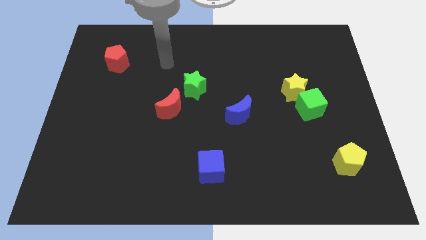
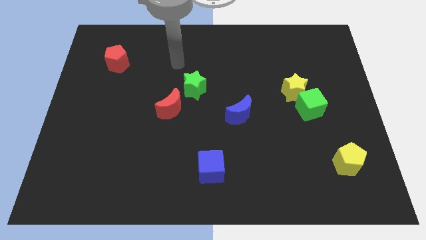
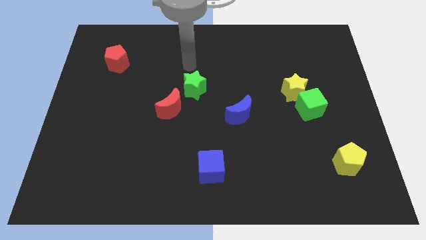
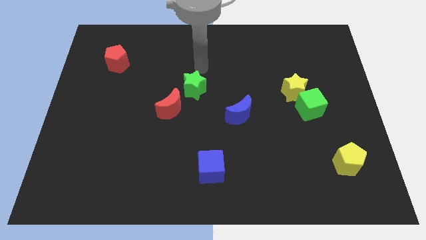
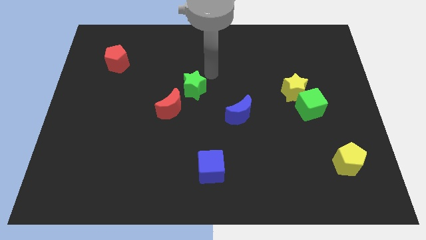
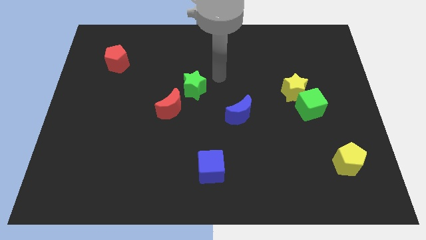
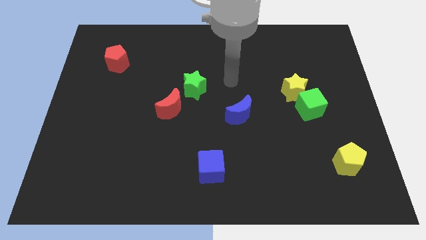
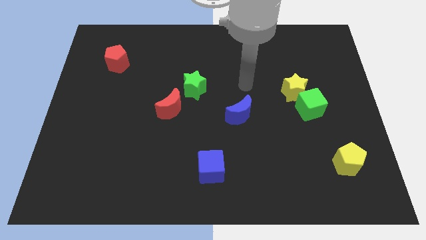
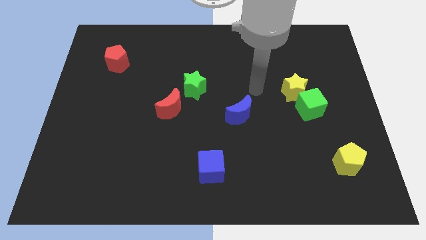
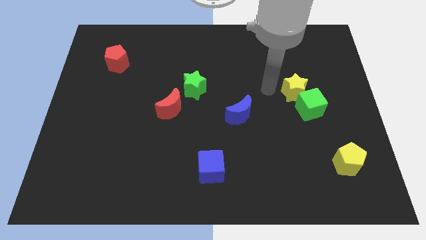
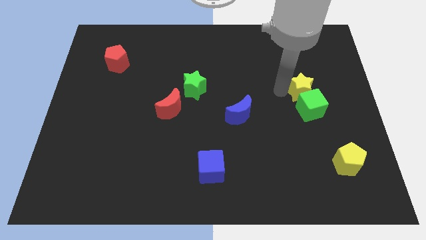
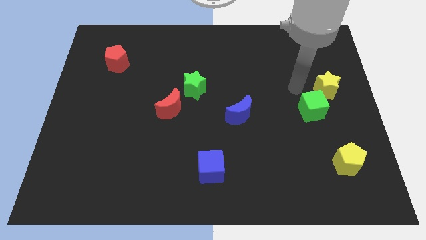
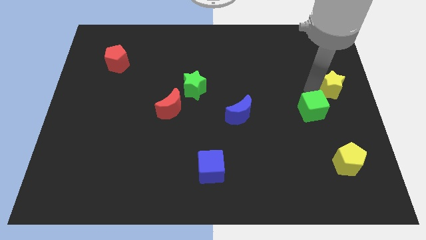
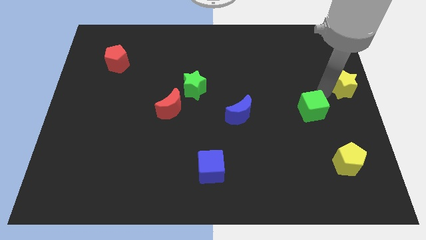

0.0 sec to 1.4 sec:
separate the green cube from the yellow star

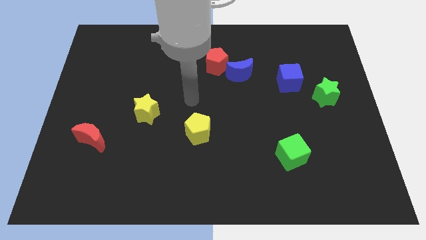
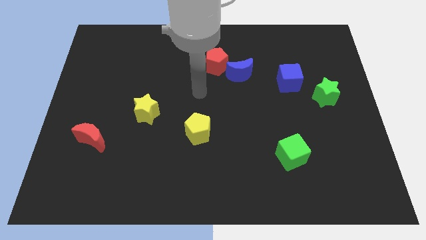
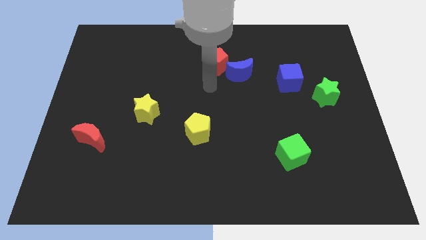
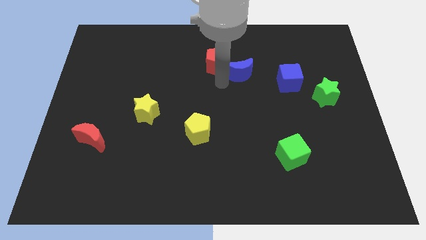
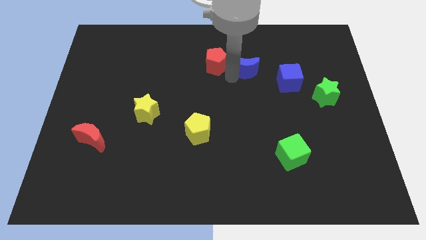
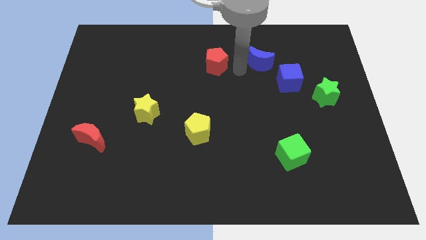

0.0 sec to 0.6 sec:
move the red pentagon away from the blue moon

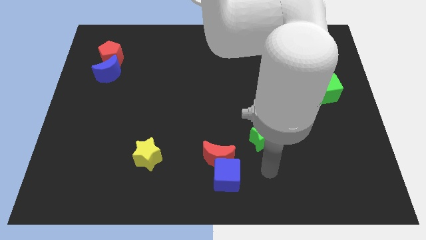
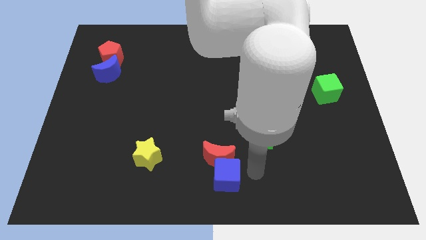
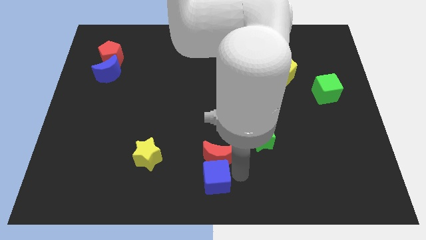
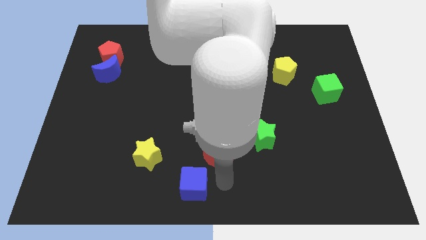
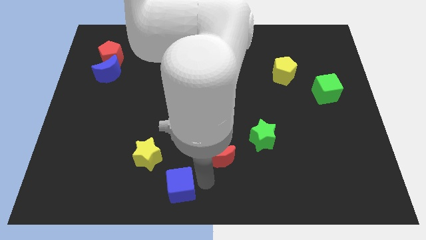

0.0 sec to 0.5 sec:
separate the red moon from the blue cube

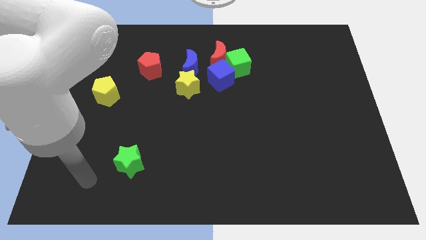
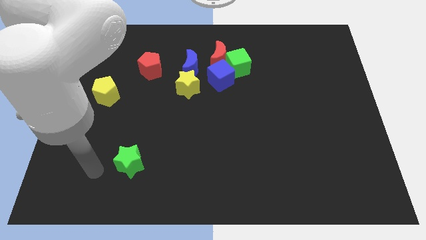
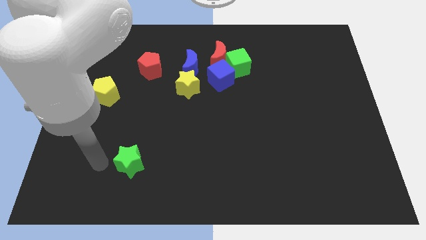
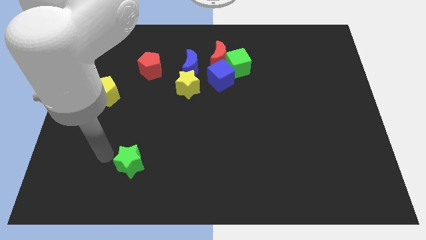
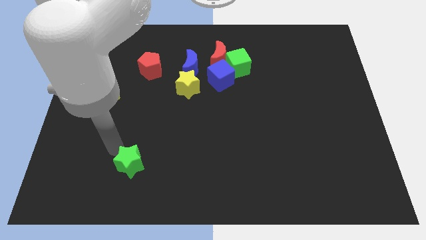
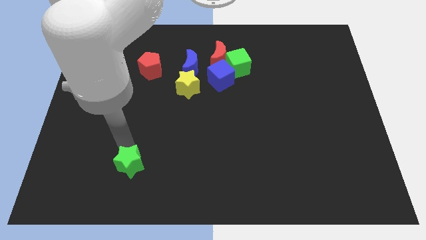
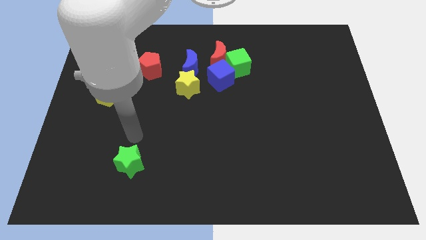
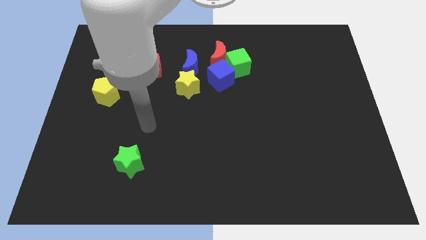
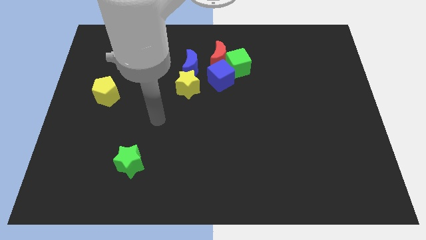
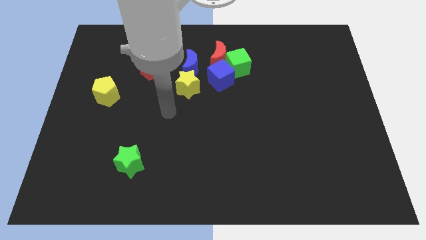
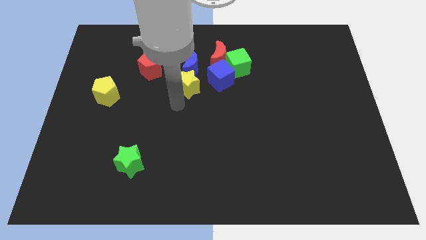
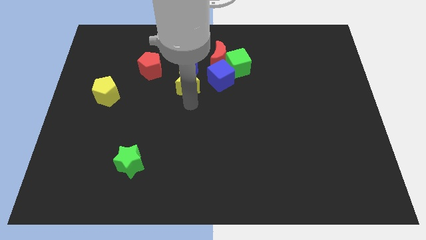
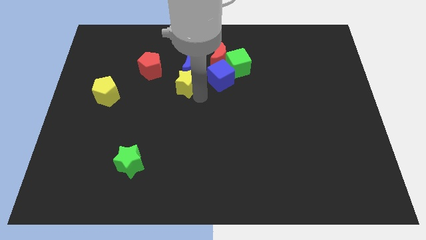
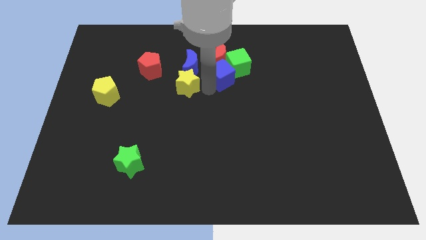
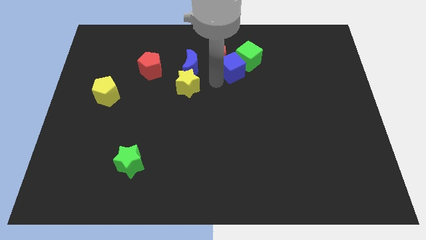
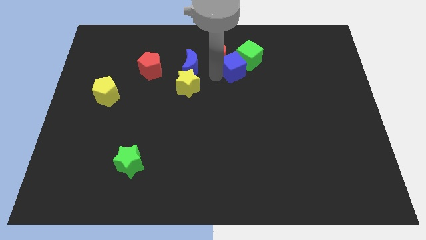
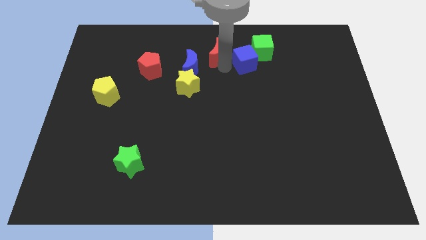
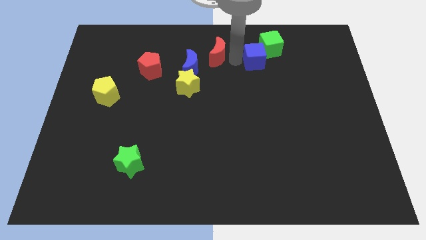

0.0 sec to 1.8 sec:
pull the green cube apart from the red moon and blue cube

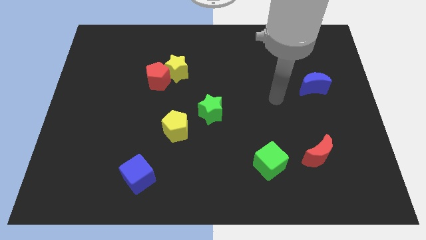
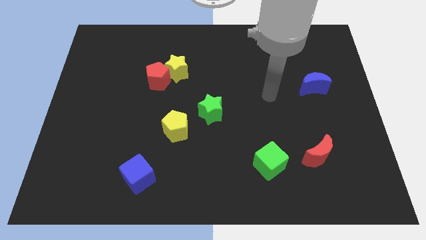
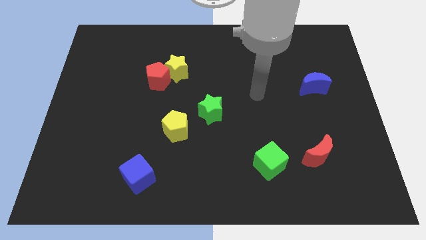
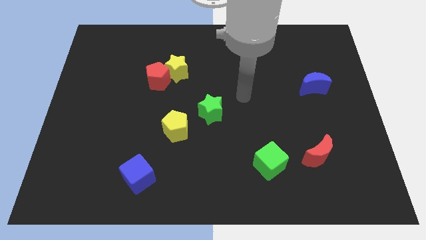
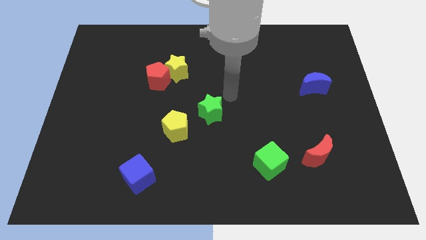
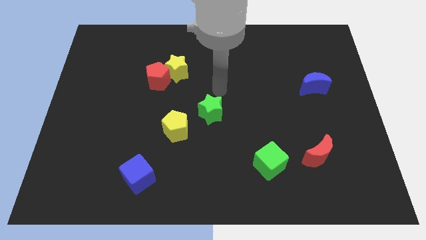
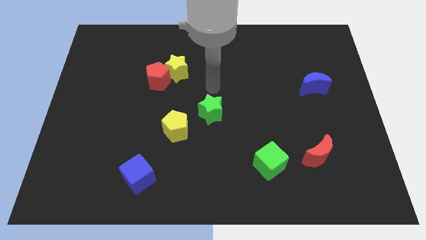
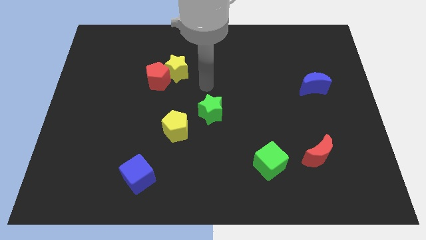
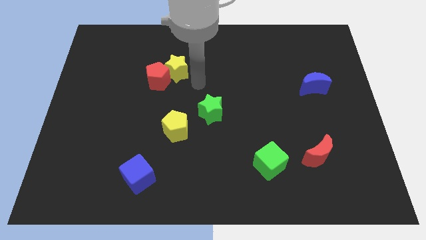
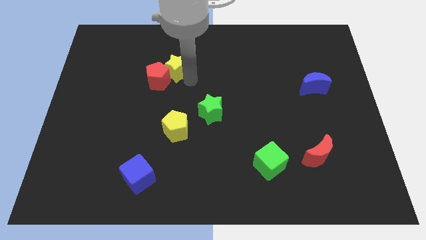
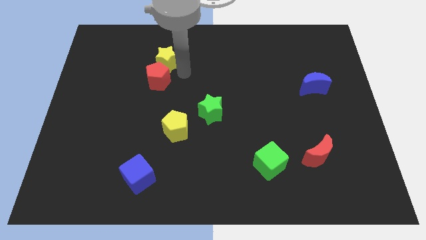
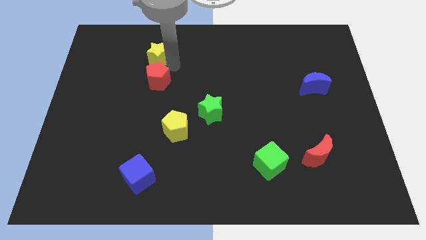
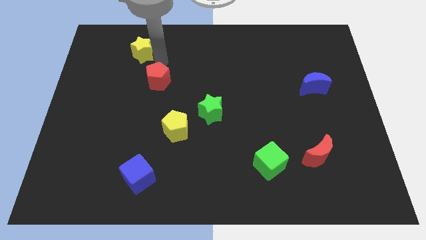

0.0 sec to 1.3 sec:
pull the red pentagon apart from the yellow star

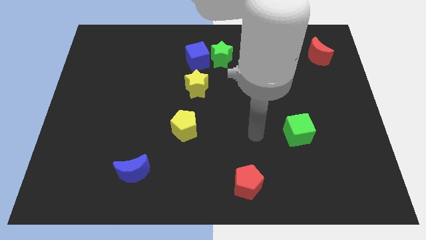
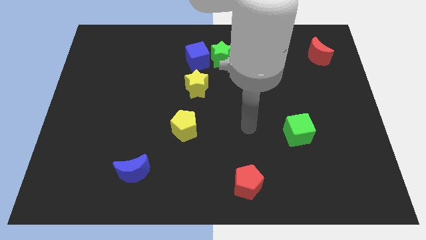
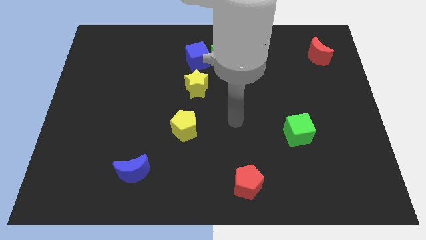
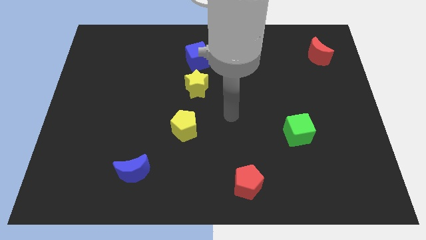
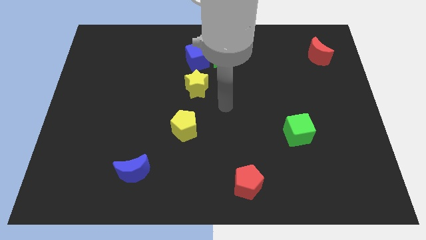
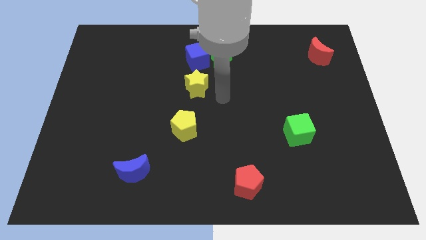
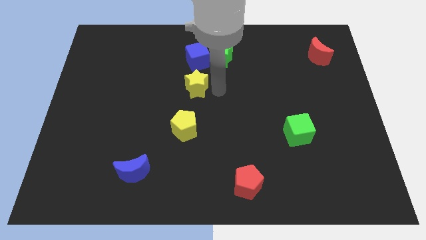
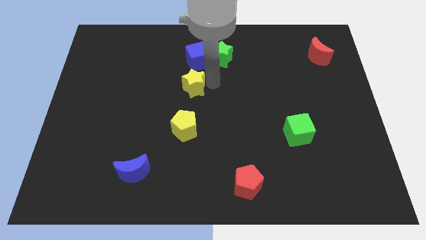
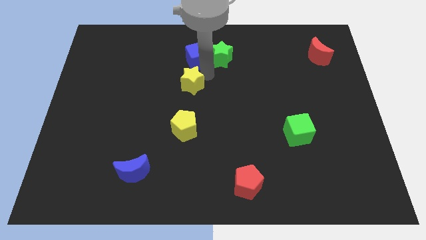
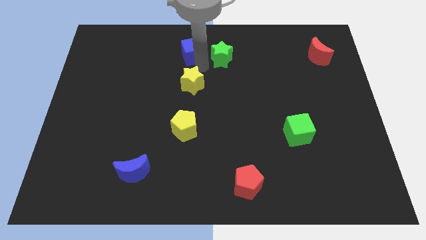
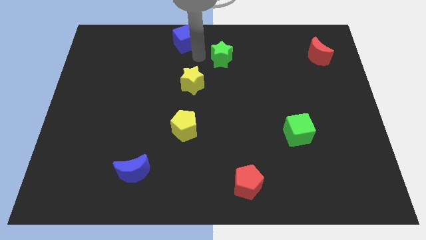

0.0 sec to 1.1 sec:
separate the green star from the blue cube

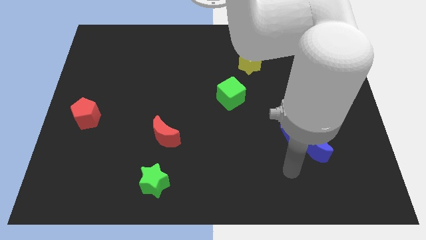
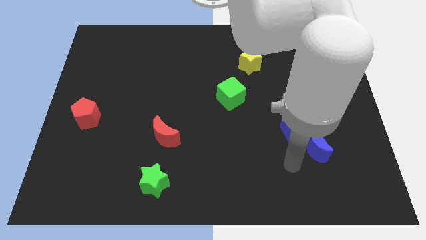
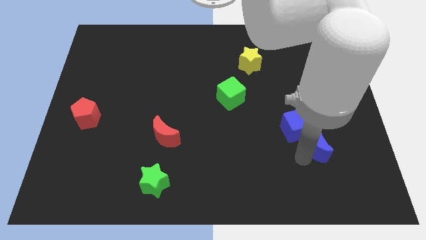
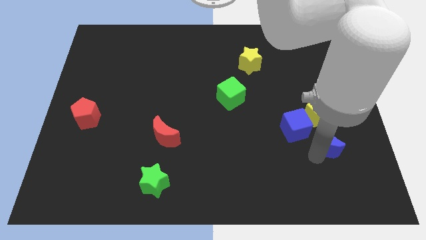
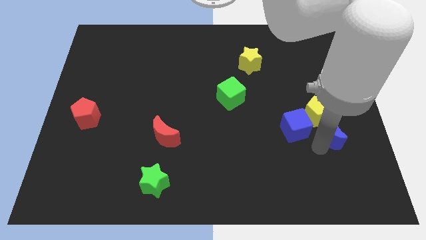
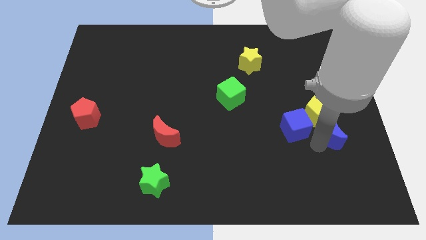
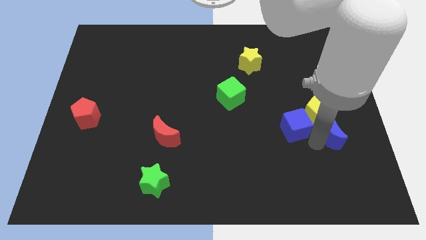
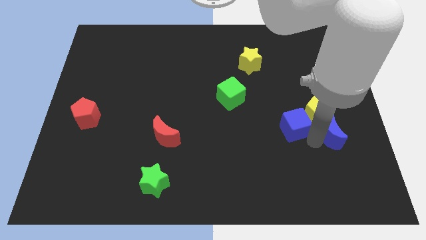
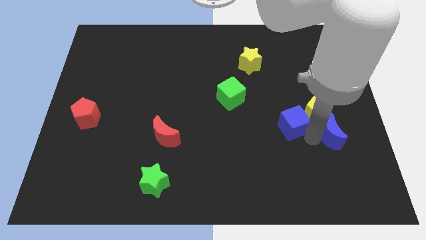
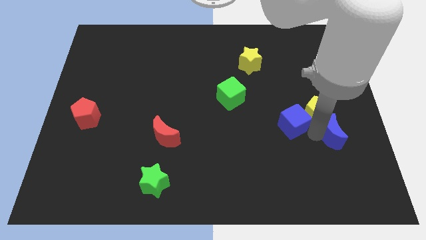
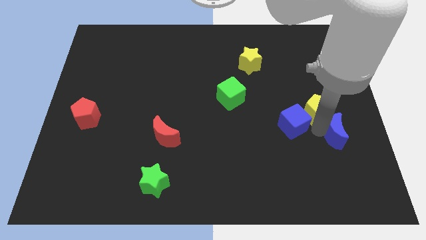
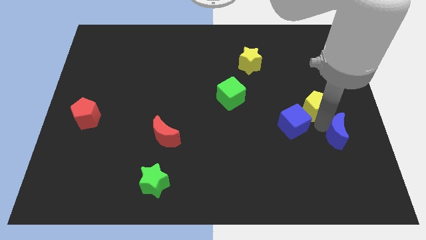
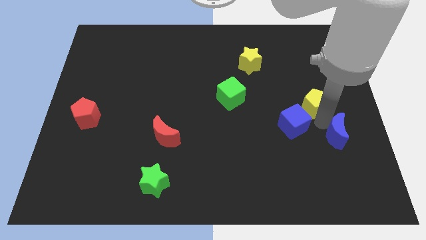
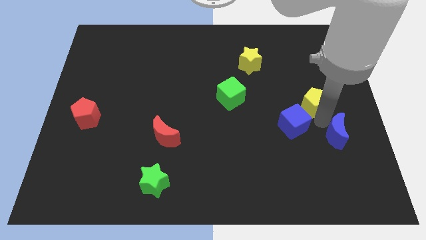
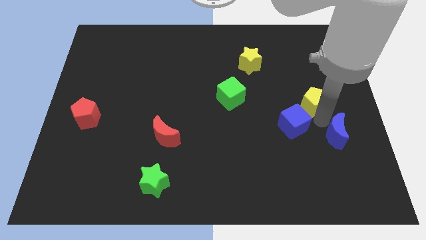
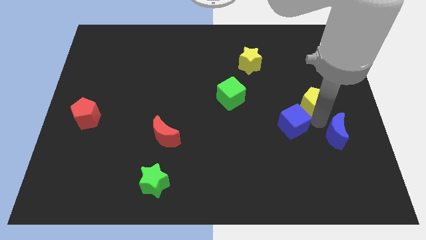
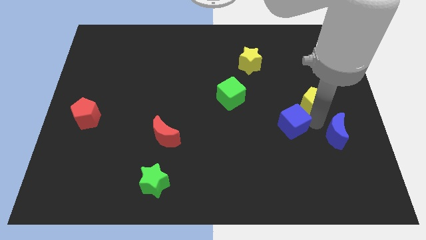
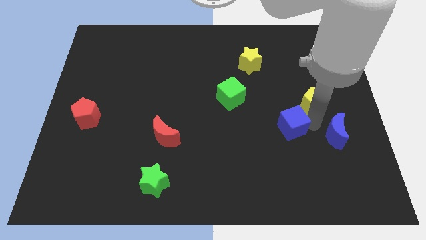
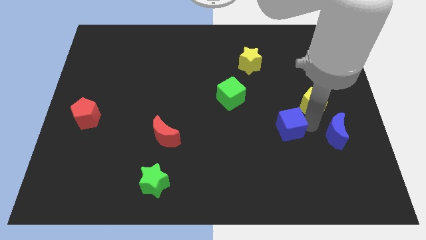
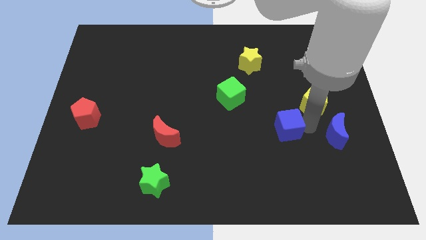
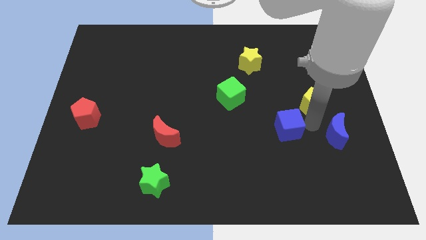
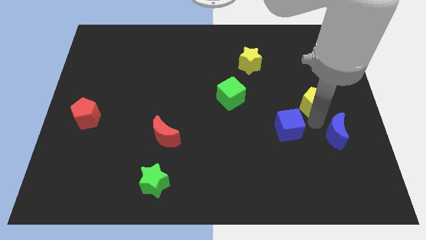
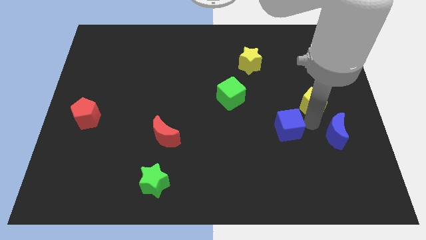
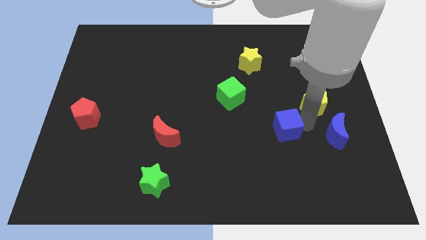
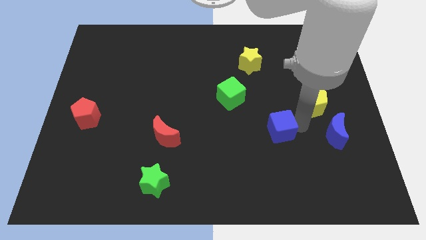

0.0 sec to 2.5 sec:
move the blue cube away from the blue moon and yellow pentagon

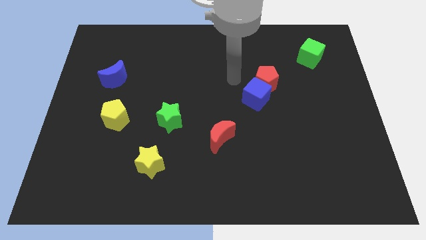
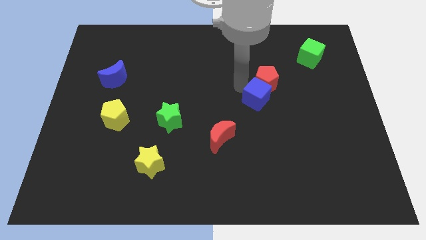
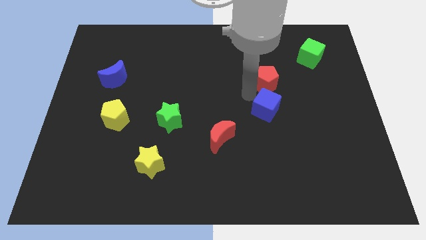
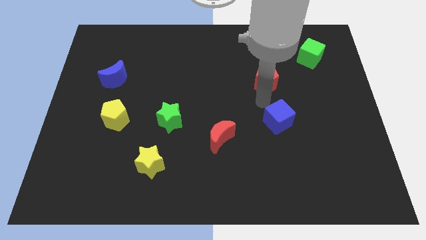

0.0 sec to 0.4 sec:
move the red pentagon away from the blue cube
